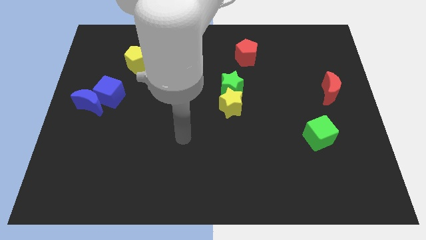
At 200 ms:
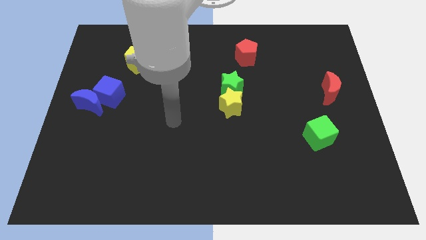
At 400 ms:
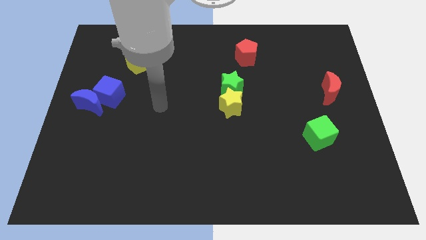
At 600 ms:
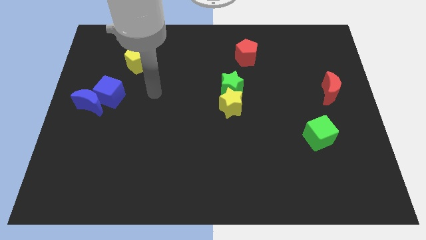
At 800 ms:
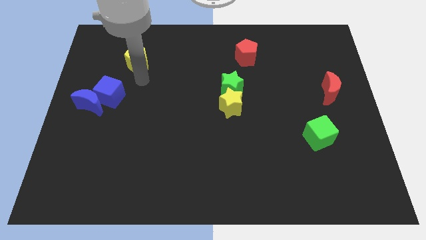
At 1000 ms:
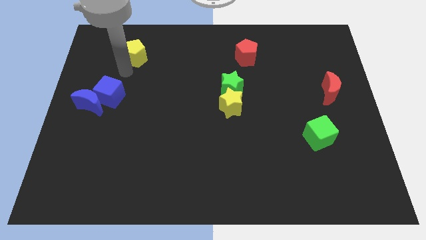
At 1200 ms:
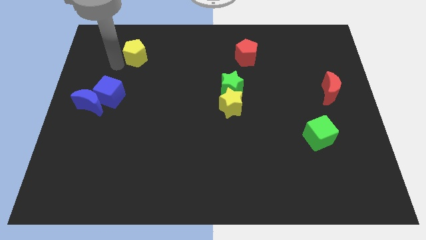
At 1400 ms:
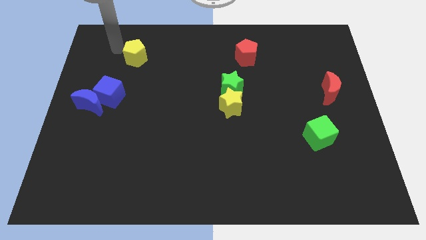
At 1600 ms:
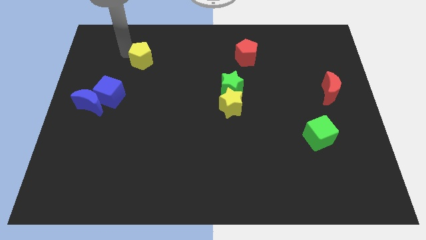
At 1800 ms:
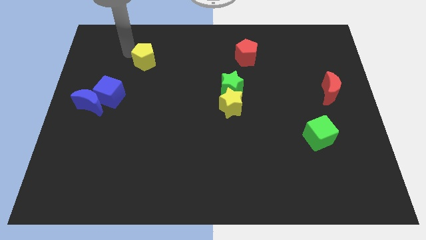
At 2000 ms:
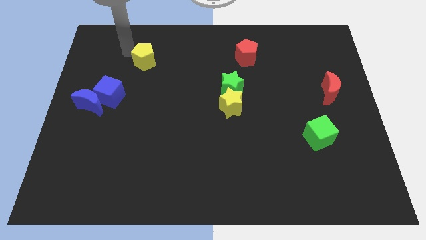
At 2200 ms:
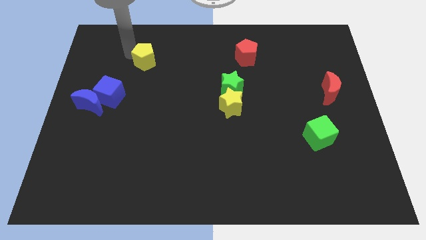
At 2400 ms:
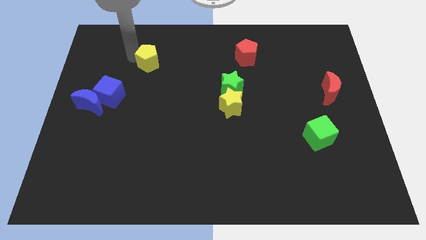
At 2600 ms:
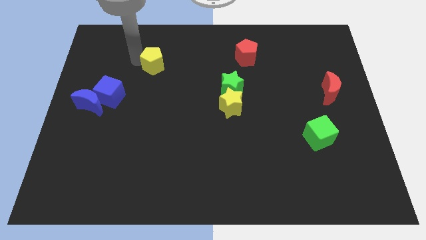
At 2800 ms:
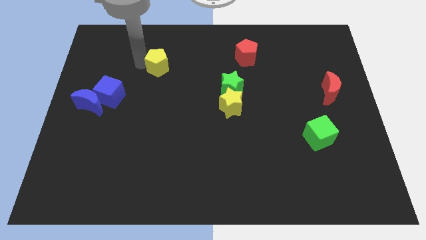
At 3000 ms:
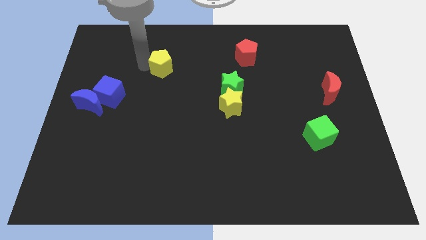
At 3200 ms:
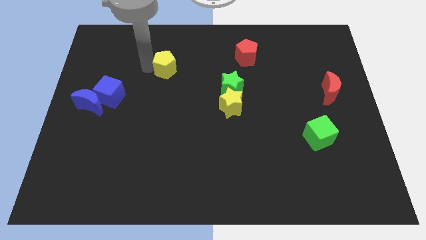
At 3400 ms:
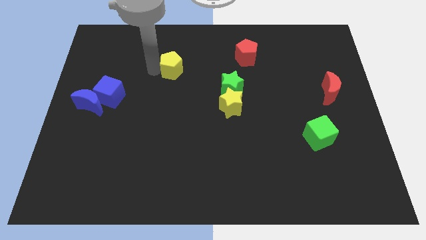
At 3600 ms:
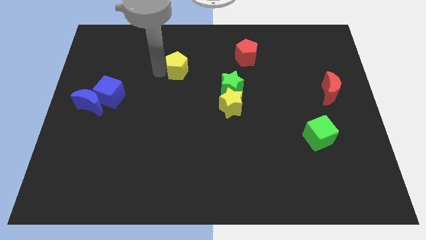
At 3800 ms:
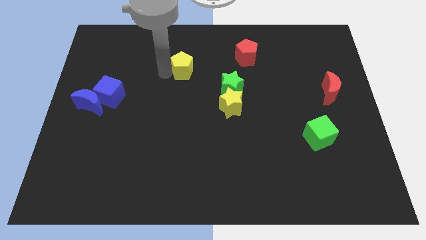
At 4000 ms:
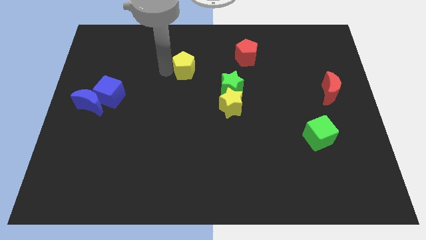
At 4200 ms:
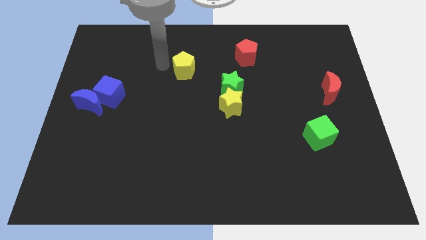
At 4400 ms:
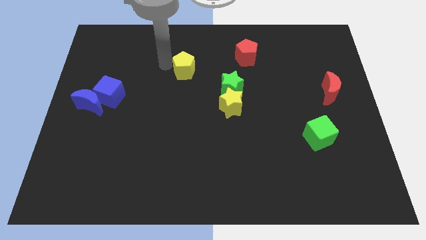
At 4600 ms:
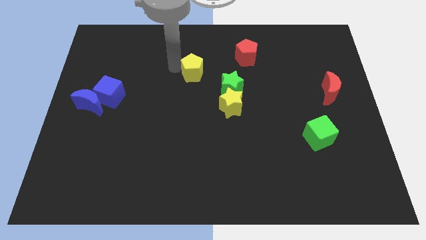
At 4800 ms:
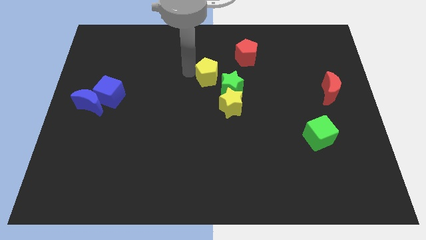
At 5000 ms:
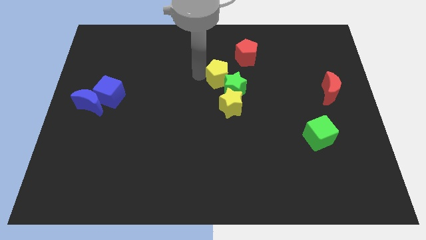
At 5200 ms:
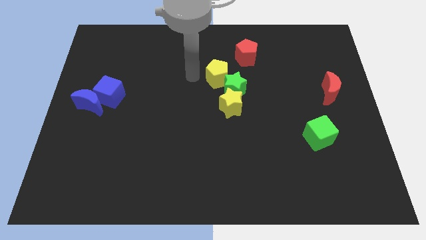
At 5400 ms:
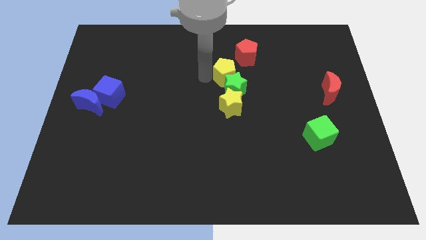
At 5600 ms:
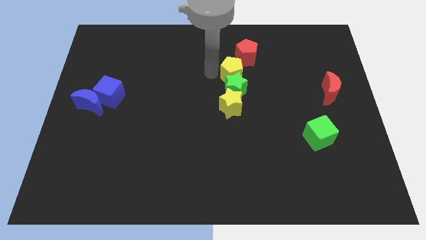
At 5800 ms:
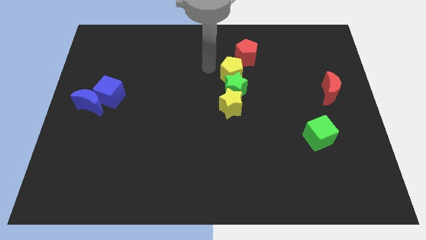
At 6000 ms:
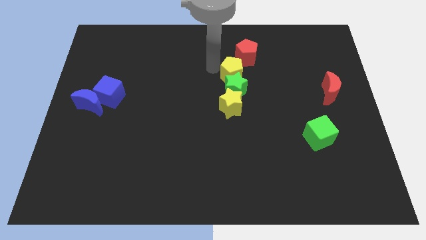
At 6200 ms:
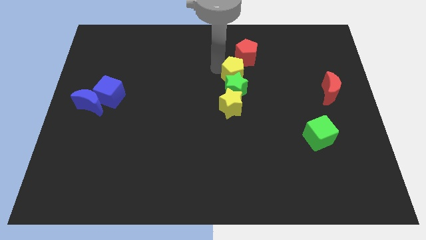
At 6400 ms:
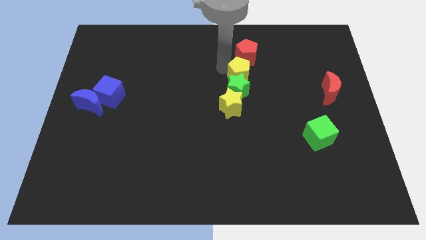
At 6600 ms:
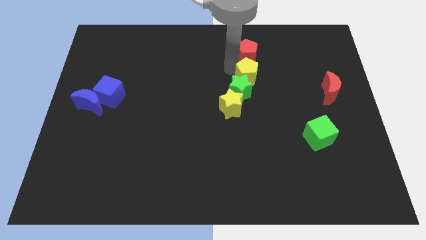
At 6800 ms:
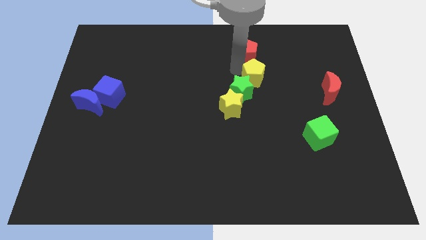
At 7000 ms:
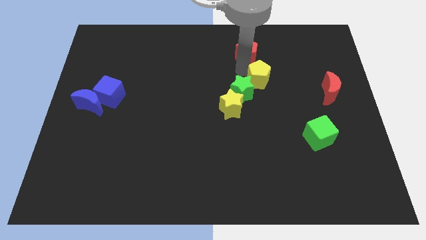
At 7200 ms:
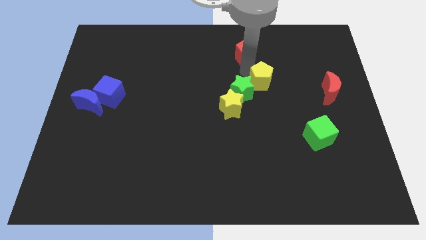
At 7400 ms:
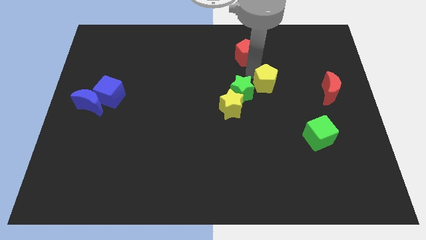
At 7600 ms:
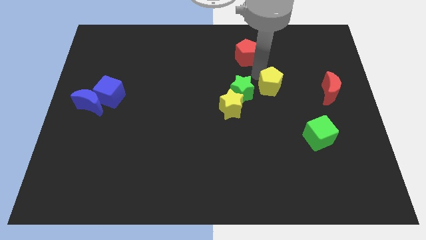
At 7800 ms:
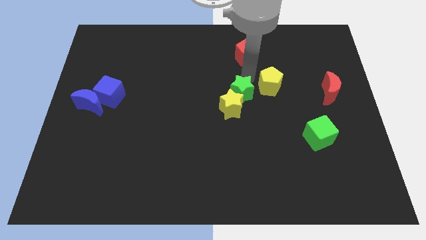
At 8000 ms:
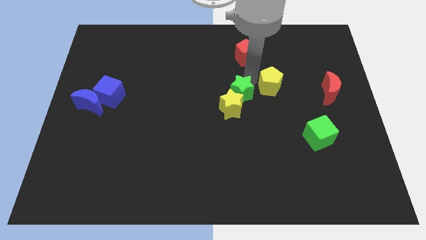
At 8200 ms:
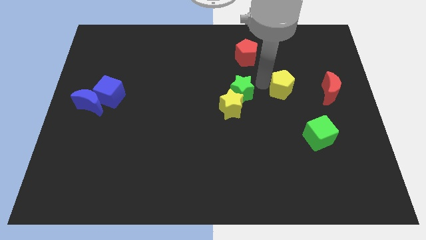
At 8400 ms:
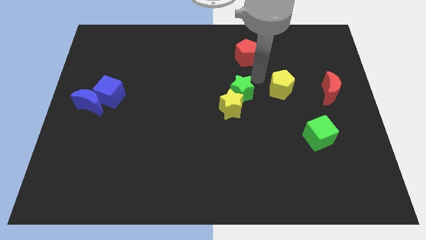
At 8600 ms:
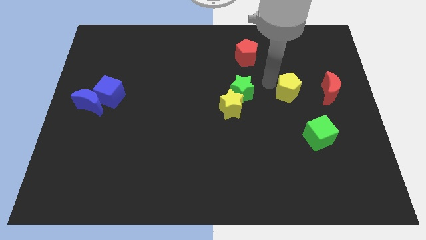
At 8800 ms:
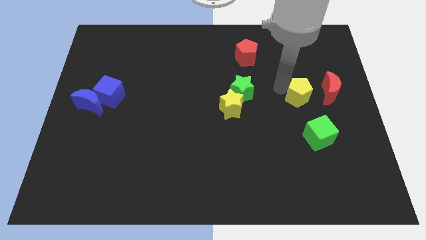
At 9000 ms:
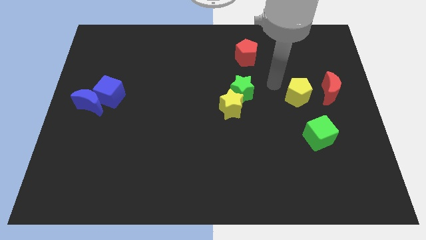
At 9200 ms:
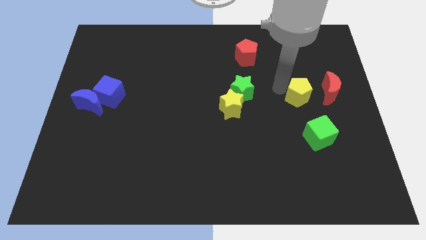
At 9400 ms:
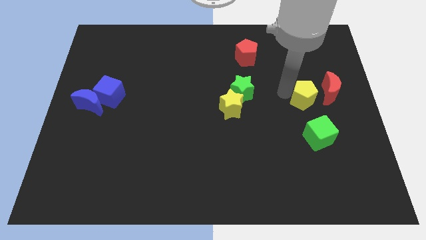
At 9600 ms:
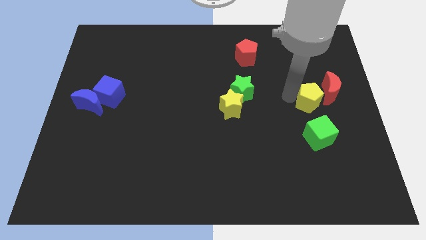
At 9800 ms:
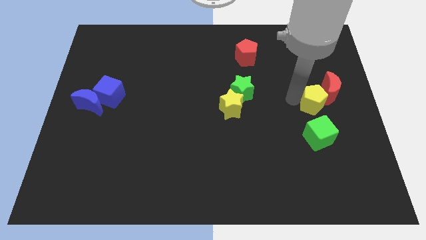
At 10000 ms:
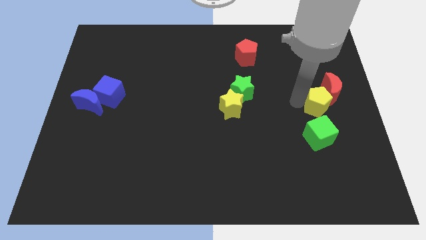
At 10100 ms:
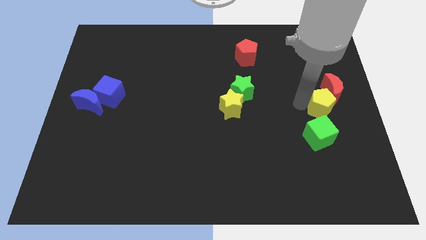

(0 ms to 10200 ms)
move the yellow pentagon to the right side
